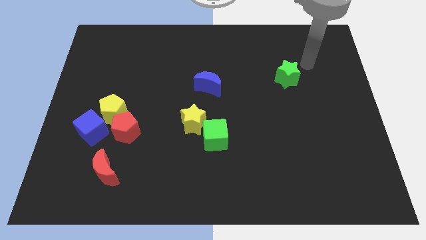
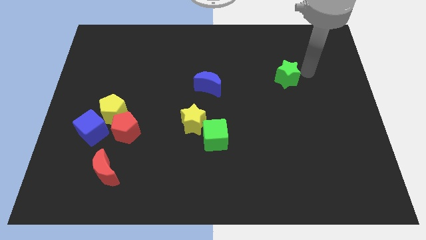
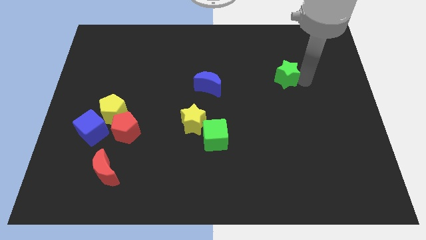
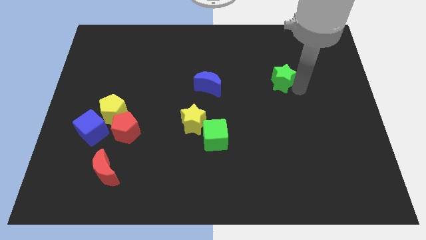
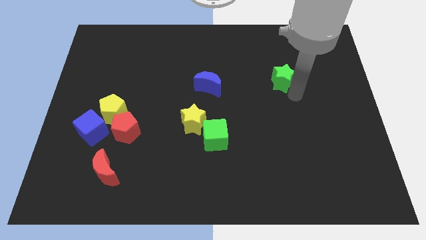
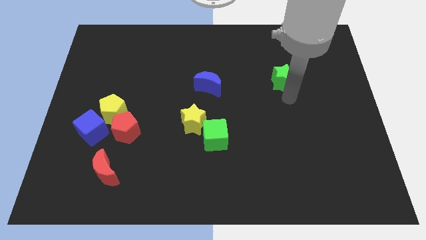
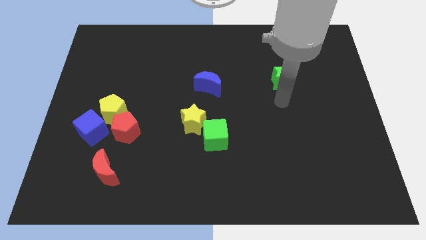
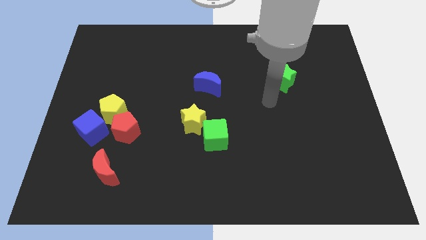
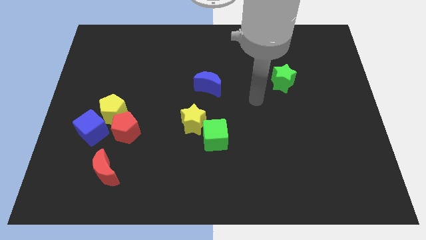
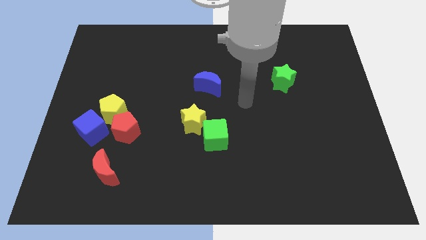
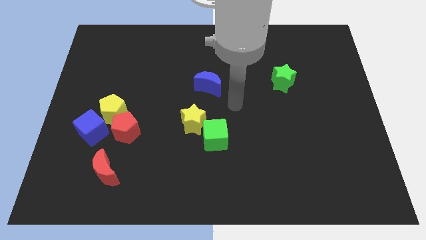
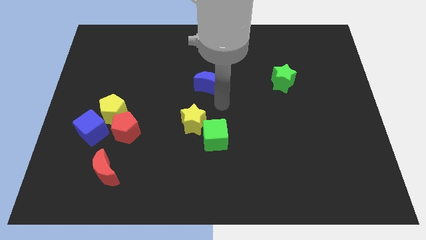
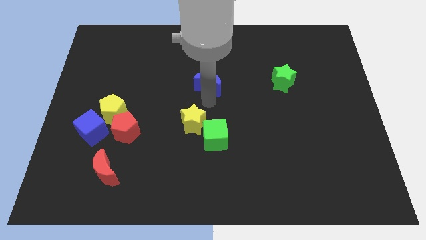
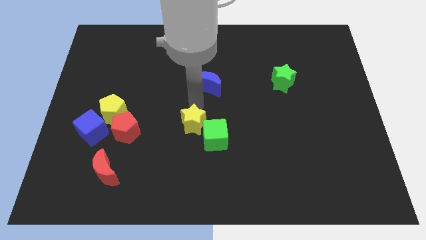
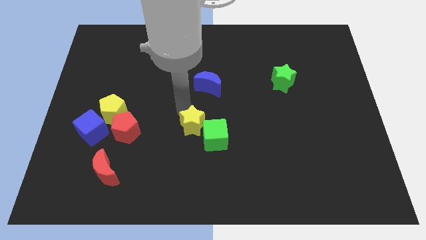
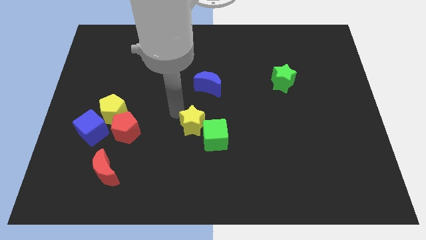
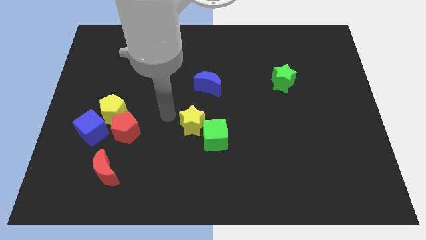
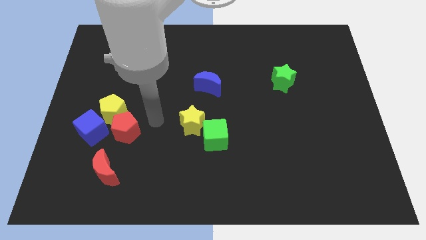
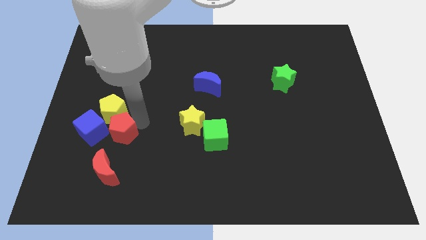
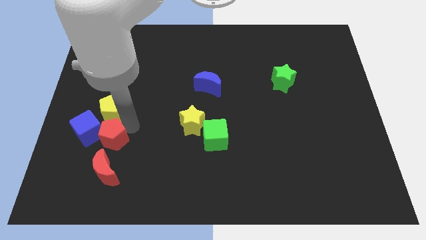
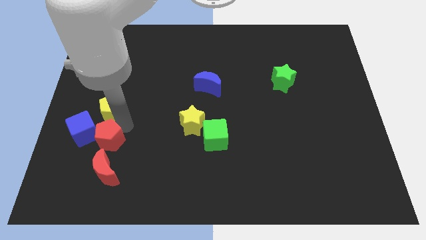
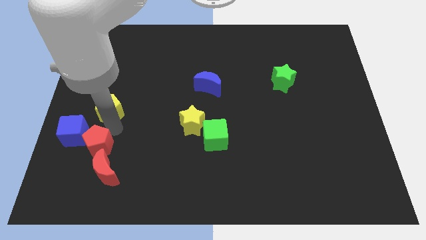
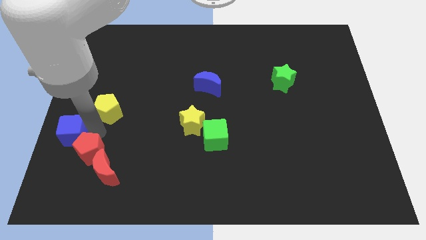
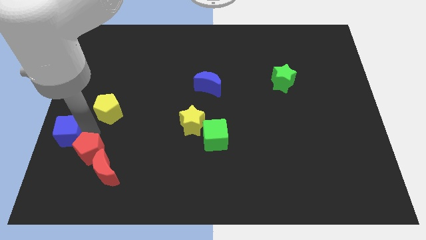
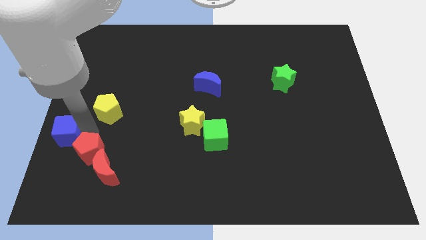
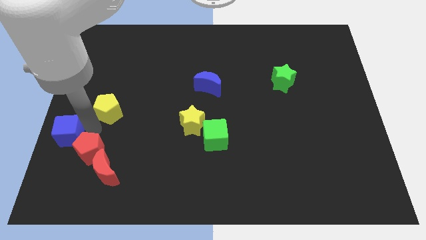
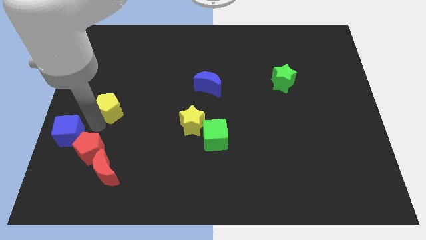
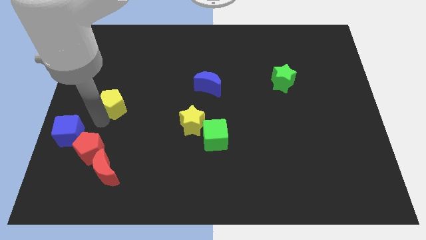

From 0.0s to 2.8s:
move the yellow pentagon away from the red pentagon and blue cube

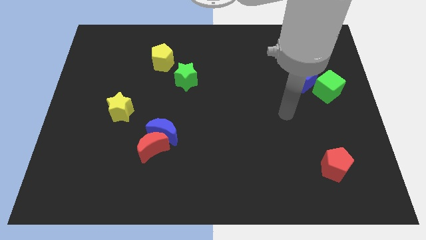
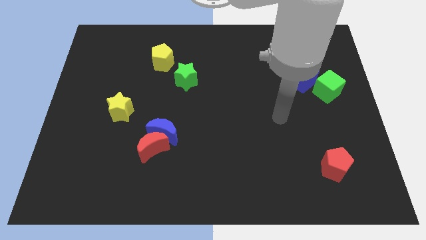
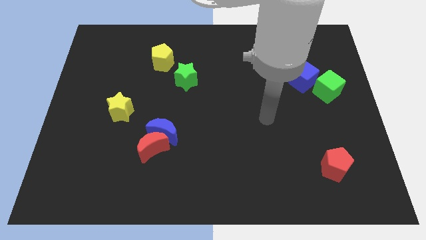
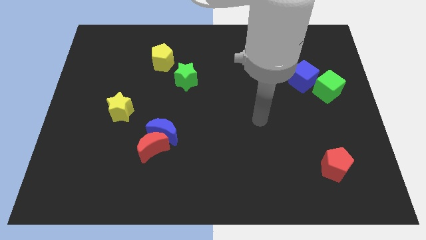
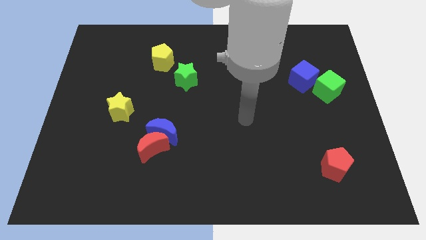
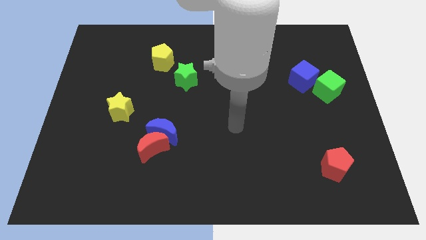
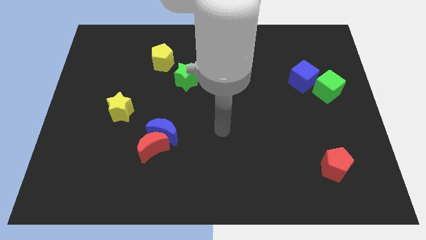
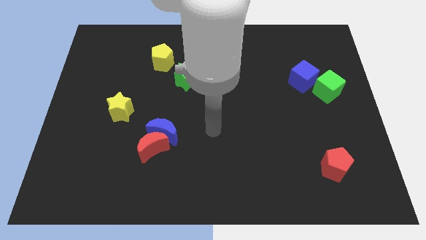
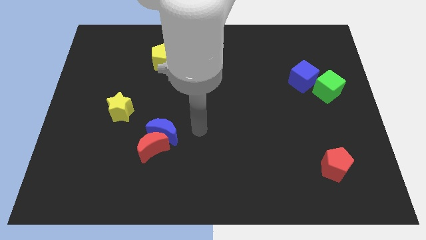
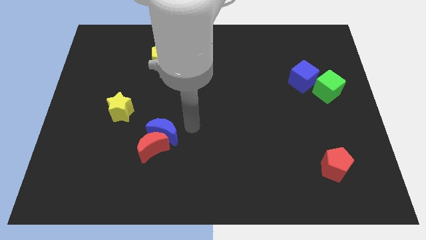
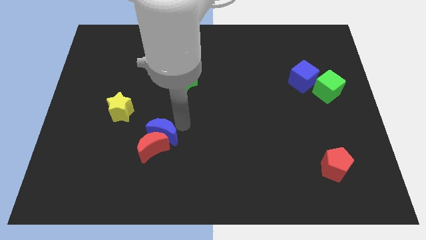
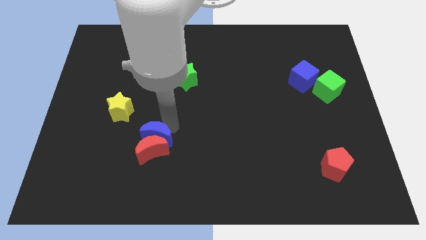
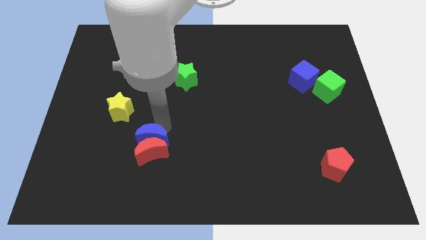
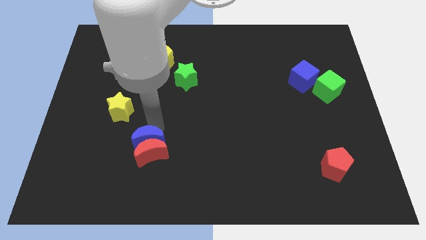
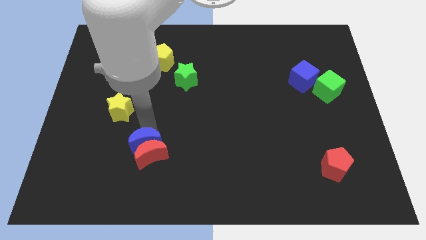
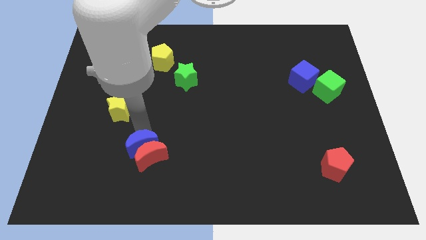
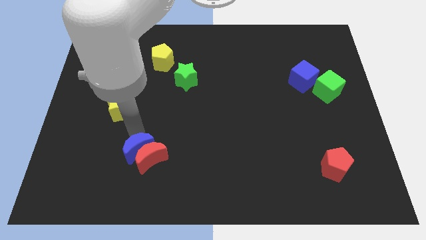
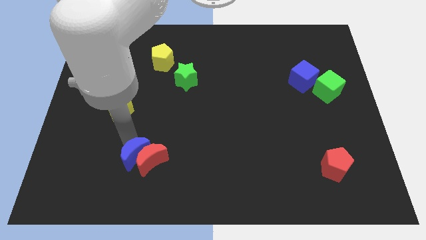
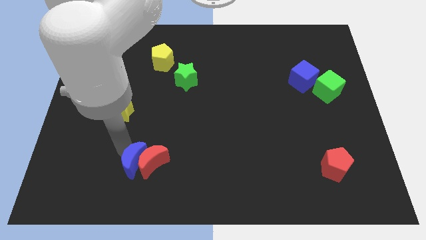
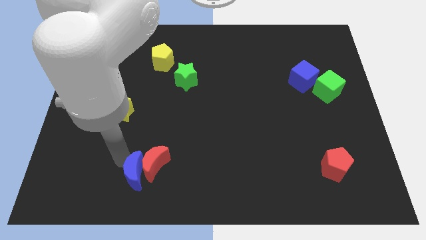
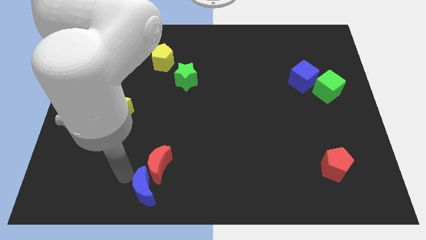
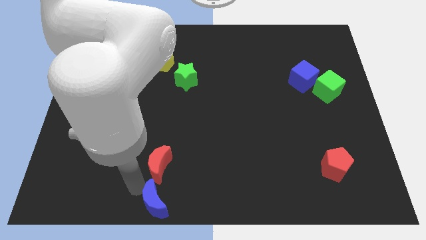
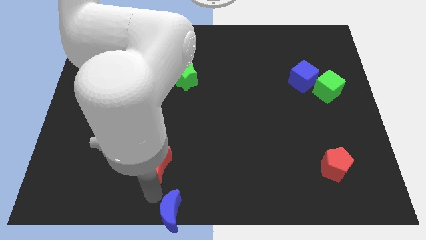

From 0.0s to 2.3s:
pull the red moon apart from the blue moon

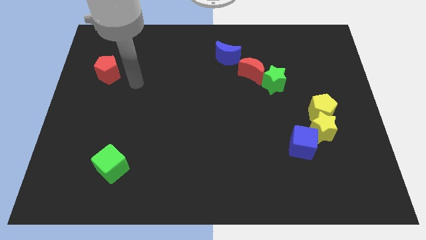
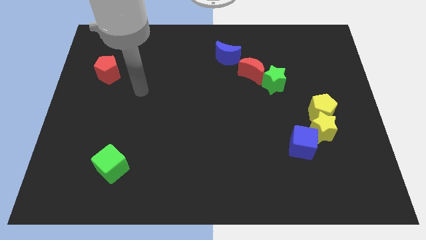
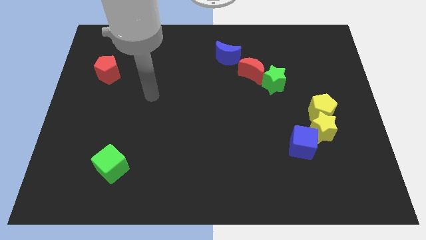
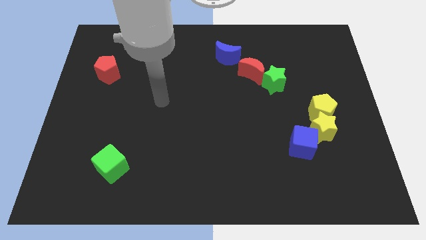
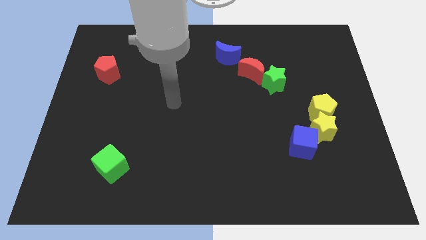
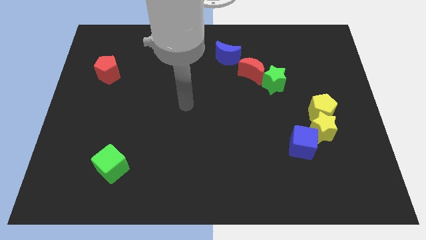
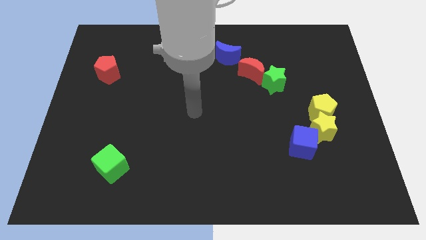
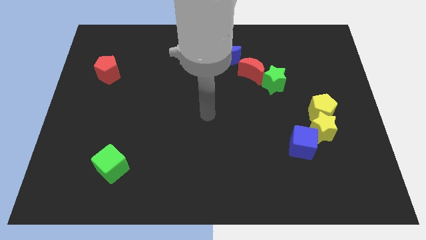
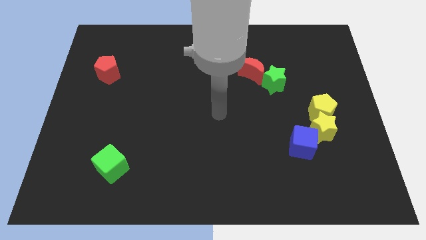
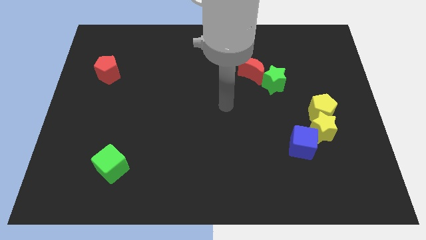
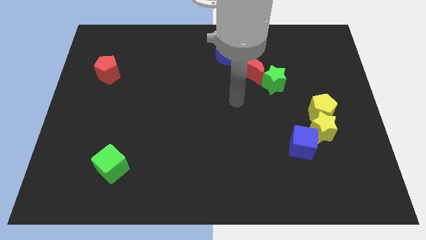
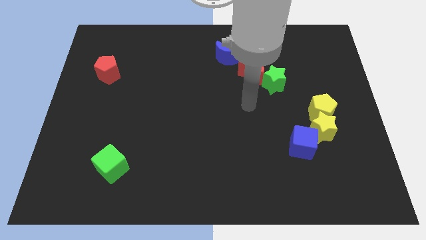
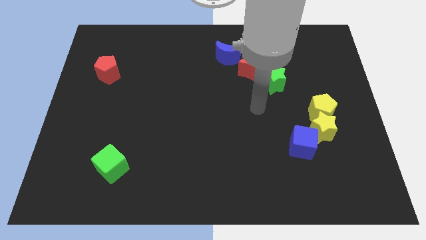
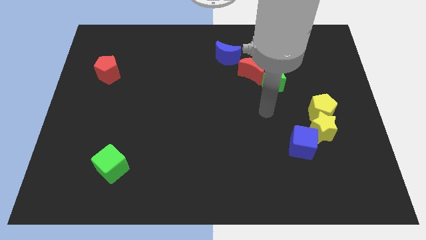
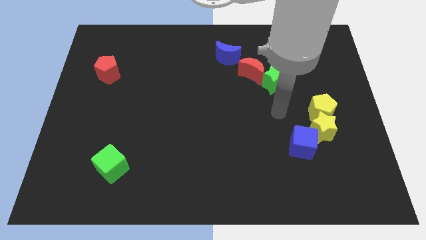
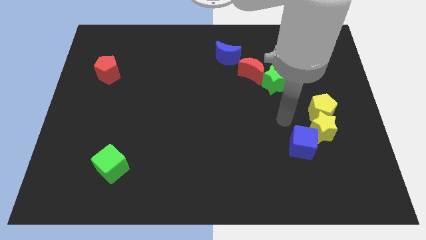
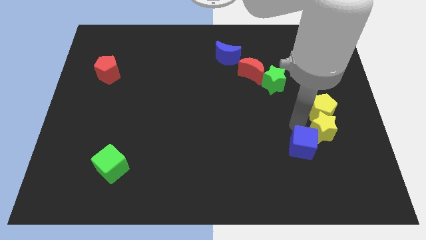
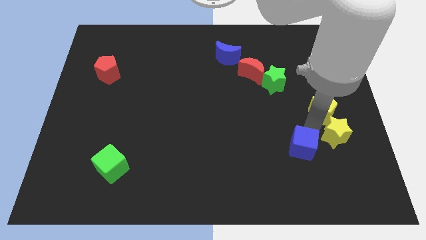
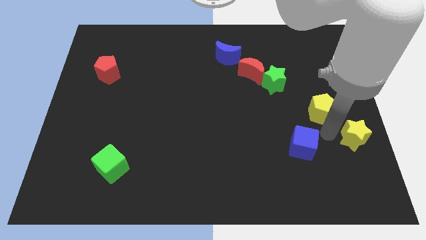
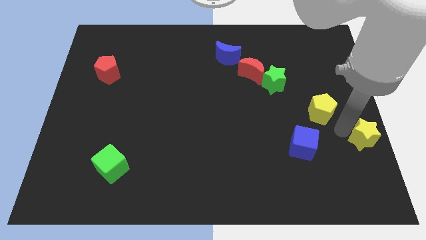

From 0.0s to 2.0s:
separate the yellow pentagon from the yellow star

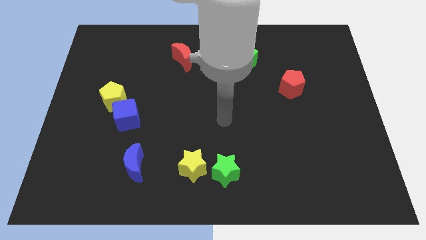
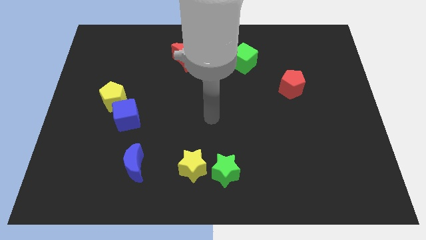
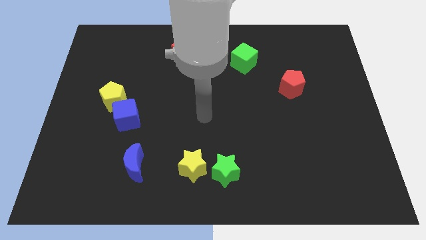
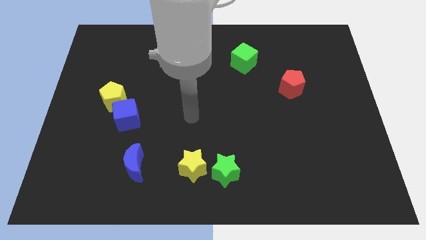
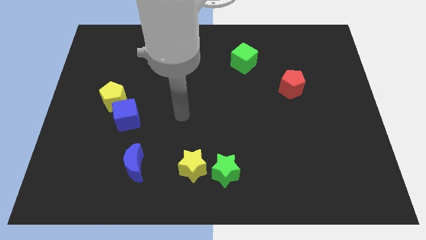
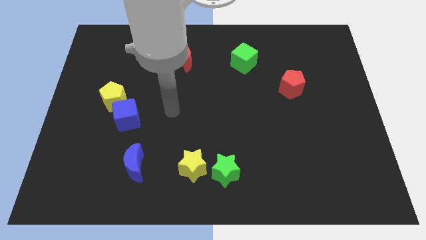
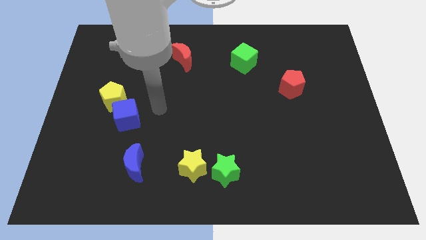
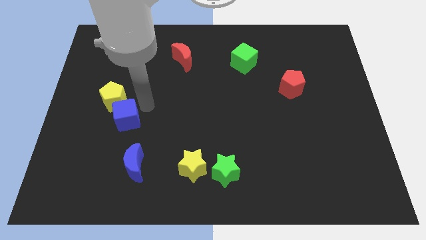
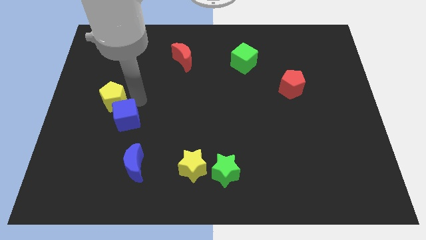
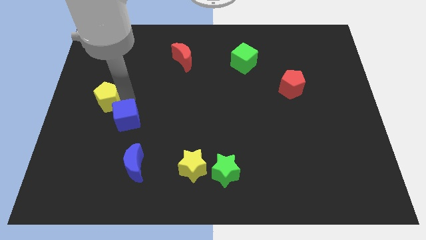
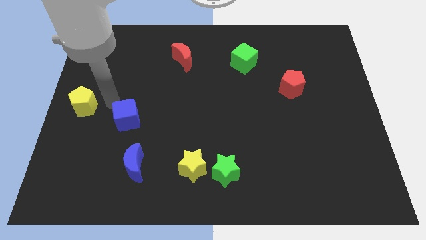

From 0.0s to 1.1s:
move the blue cube away from the yellow pentagon

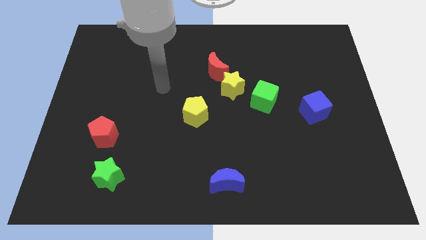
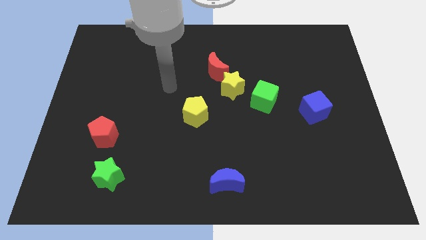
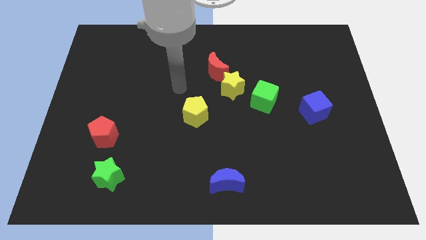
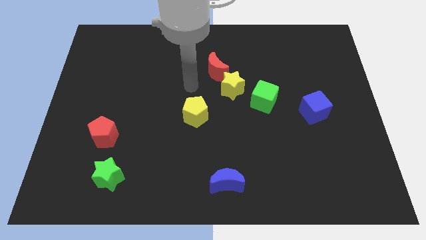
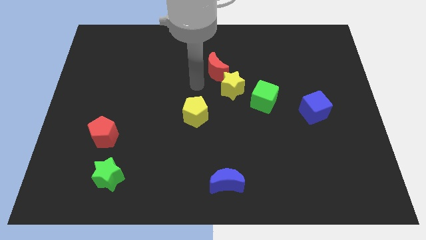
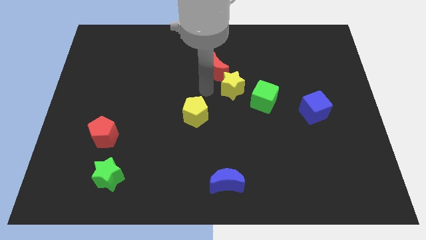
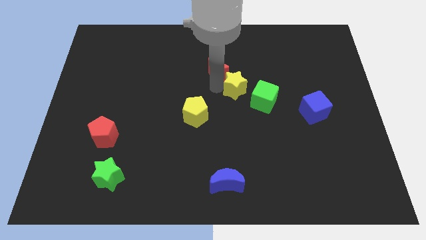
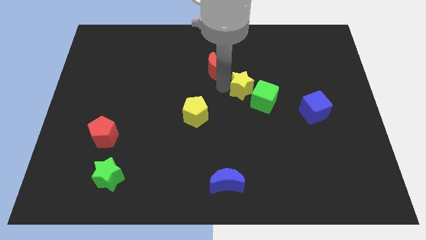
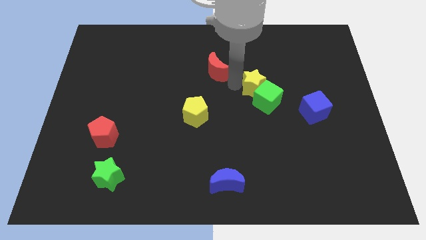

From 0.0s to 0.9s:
separate the red moon from the yellow star

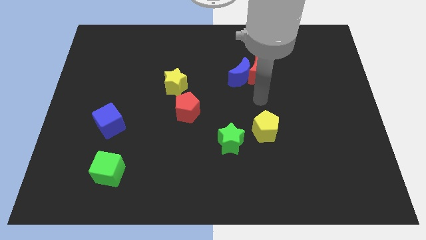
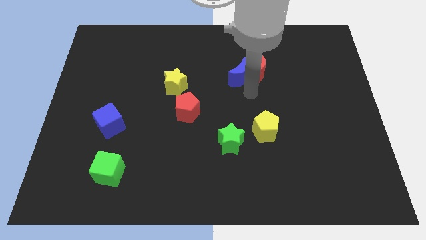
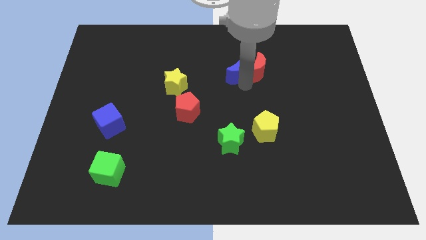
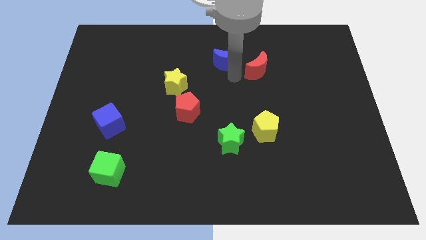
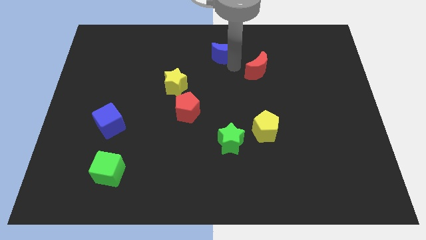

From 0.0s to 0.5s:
move the red moon away from the blue moon
